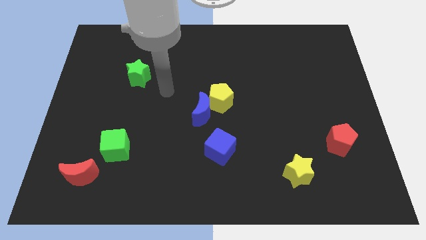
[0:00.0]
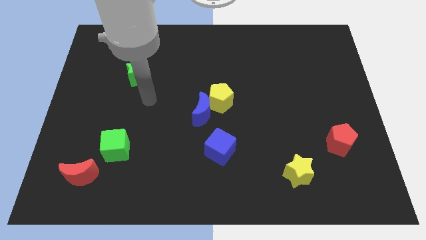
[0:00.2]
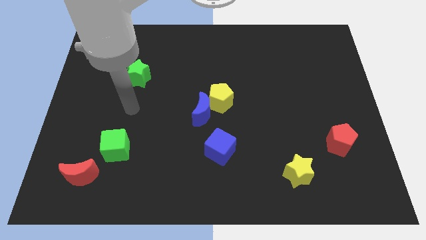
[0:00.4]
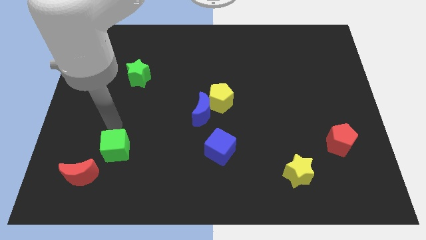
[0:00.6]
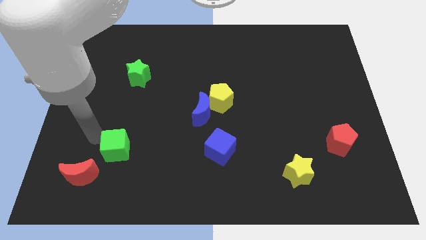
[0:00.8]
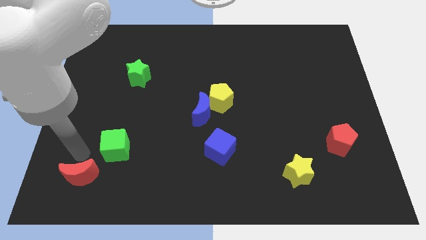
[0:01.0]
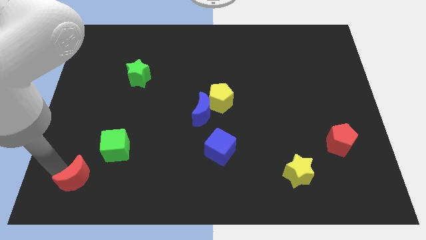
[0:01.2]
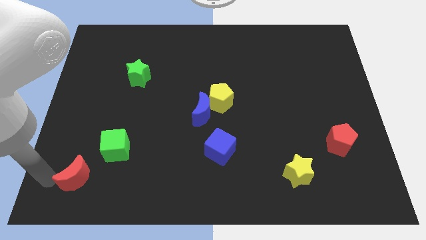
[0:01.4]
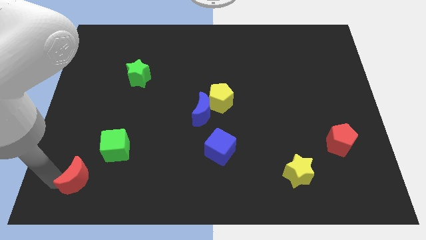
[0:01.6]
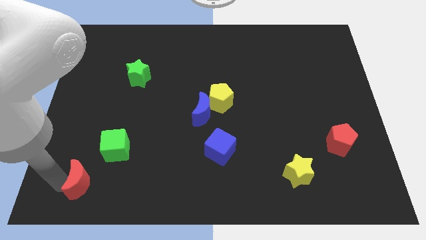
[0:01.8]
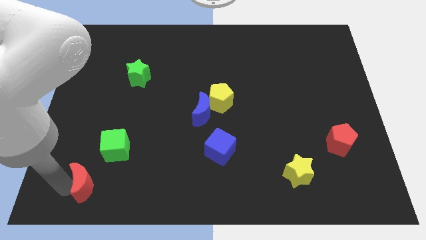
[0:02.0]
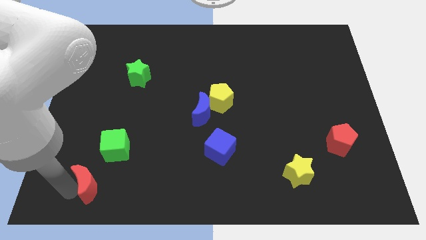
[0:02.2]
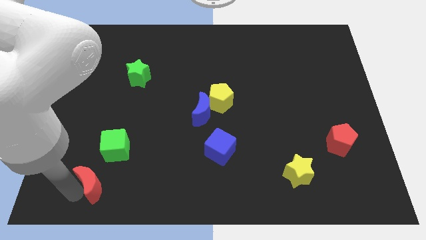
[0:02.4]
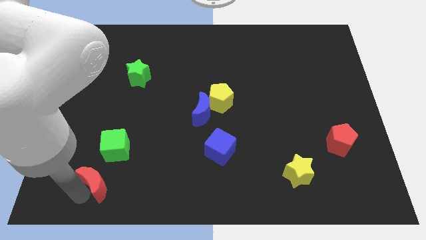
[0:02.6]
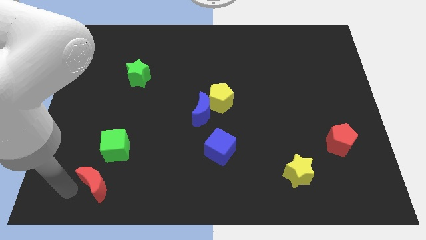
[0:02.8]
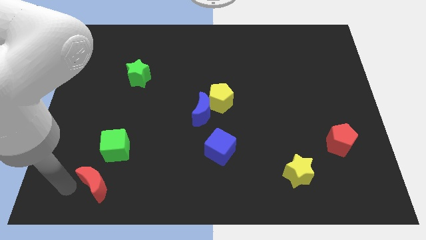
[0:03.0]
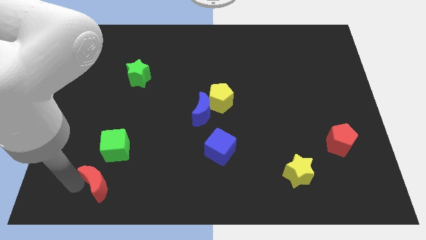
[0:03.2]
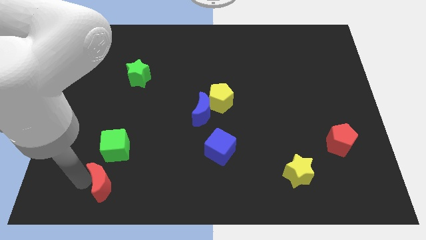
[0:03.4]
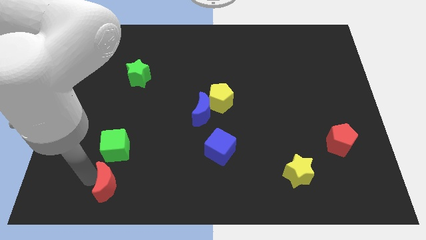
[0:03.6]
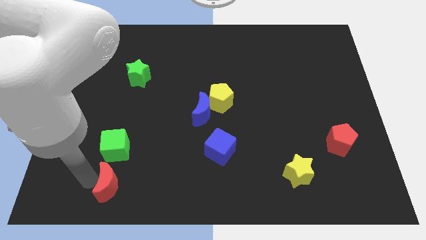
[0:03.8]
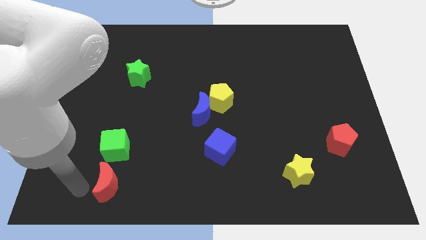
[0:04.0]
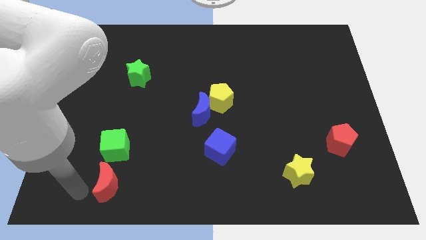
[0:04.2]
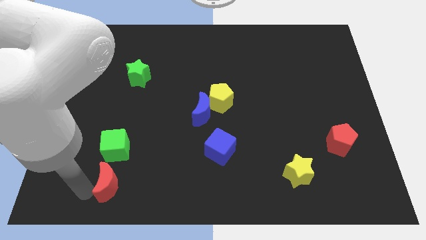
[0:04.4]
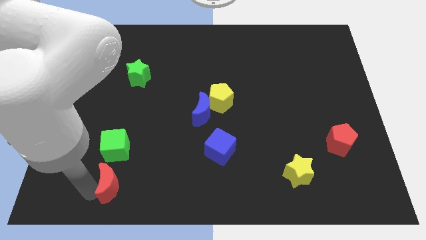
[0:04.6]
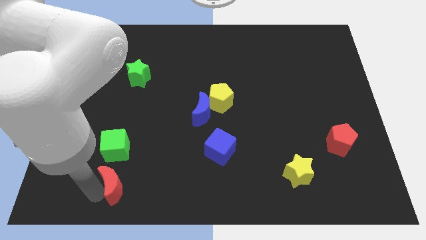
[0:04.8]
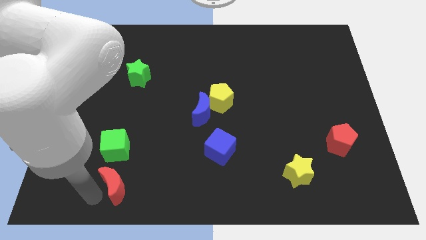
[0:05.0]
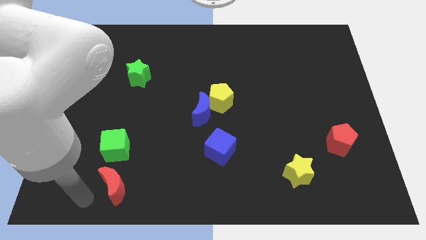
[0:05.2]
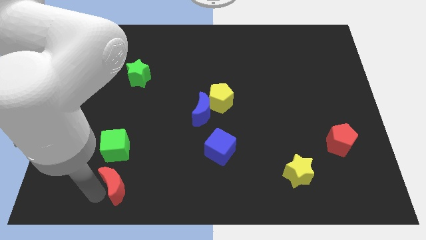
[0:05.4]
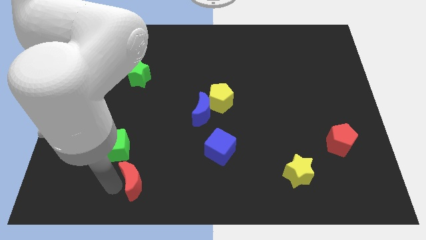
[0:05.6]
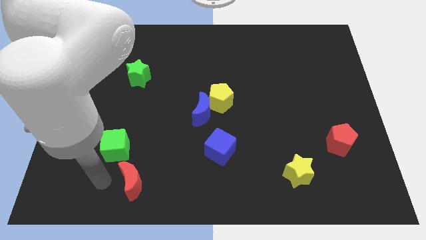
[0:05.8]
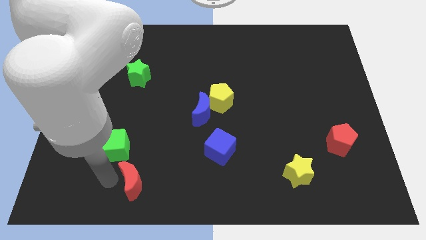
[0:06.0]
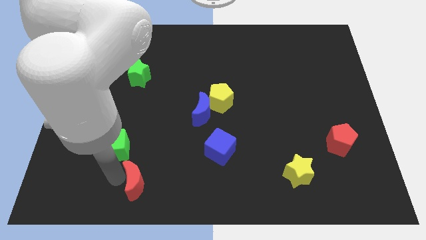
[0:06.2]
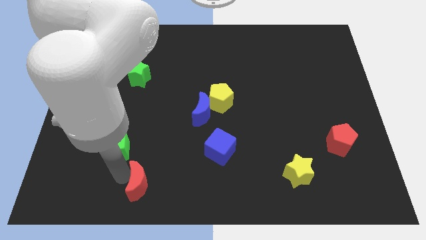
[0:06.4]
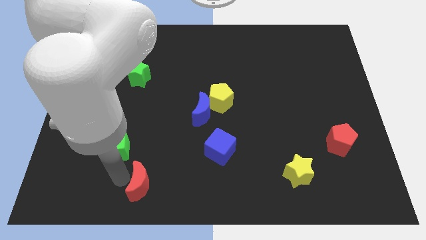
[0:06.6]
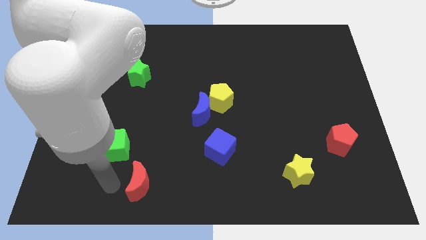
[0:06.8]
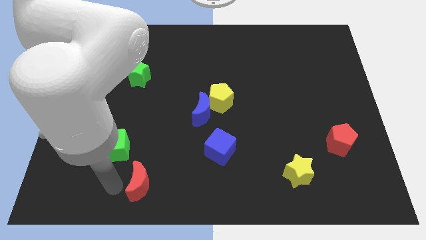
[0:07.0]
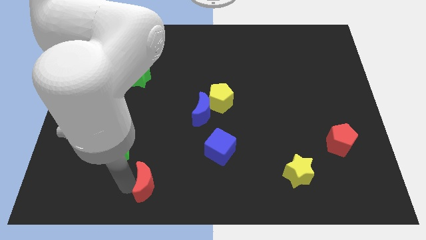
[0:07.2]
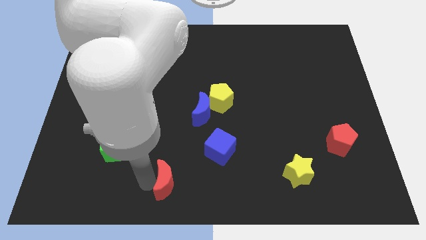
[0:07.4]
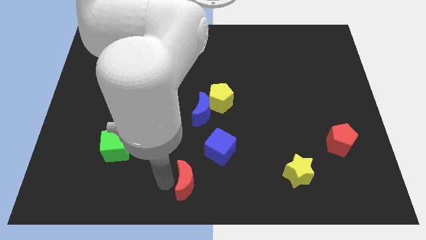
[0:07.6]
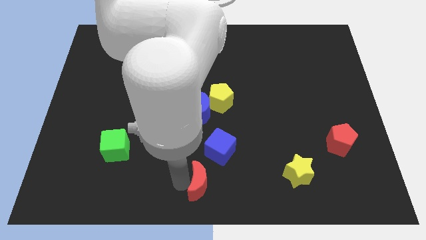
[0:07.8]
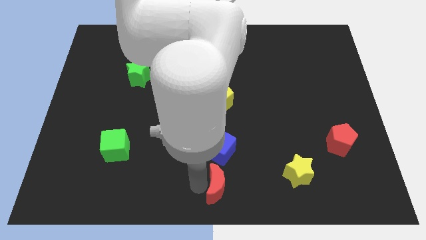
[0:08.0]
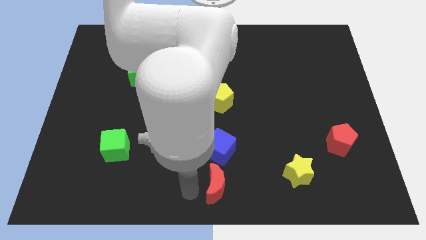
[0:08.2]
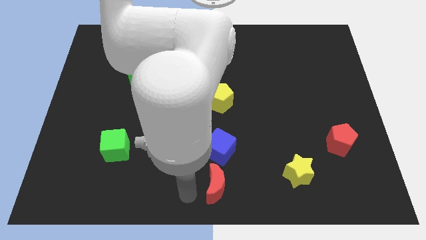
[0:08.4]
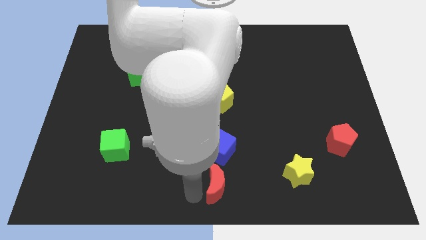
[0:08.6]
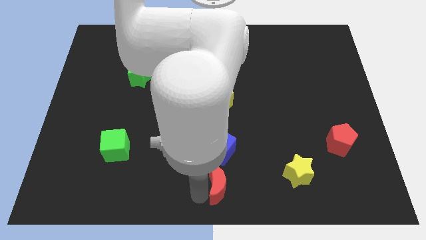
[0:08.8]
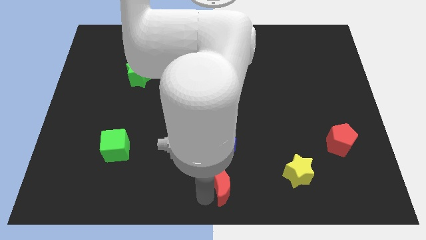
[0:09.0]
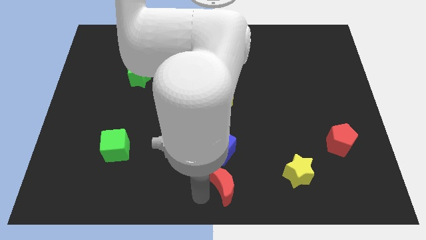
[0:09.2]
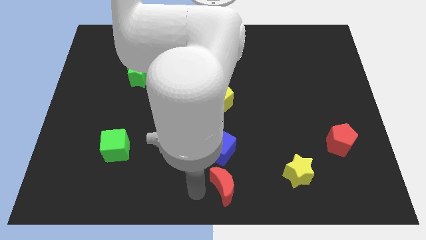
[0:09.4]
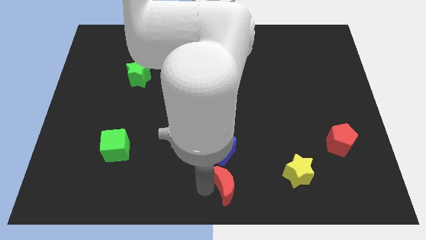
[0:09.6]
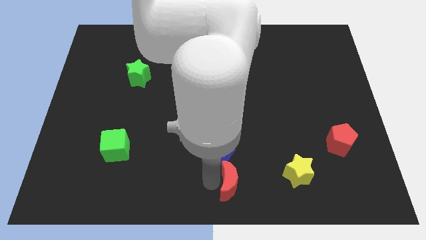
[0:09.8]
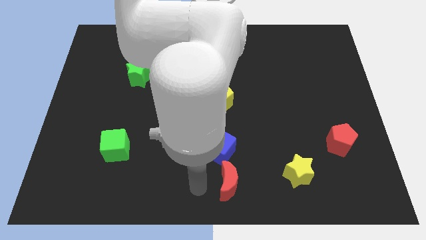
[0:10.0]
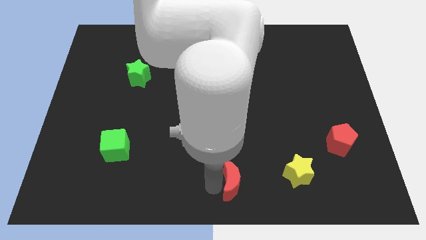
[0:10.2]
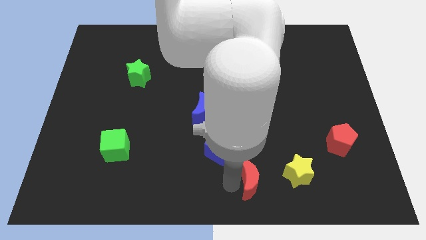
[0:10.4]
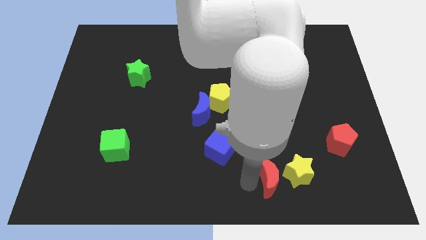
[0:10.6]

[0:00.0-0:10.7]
move the red moon towards the yellow star

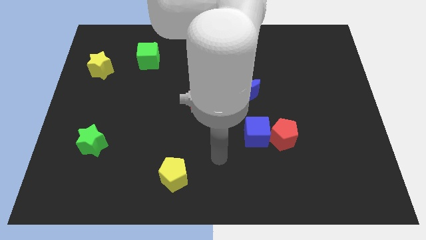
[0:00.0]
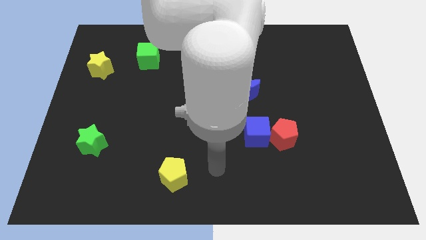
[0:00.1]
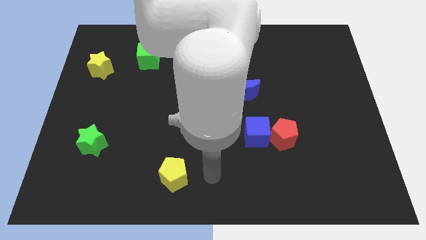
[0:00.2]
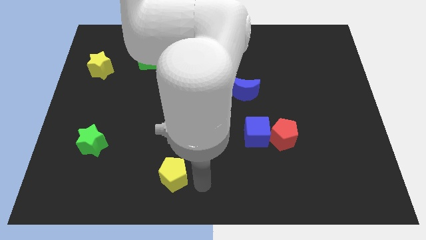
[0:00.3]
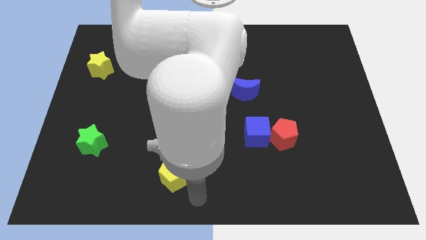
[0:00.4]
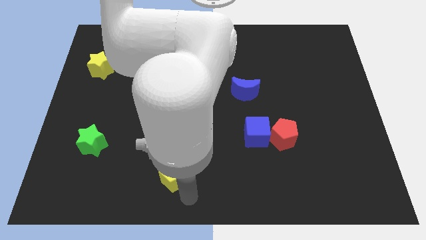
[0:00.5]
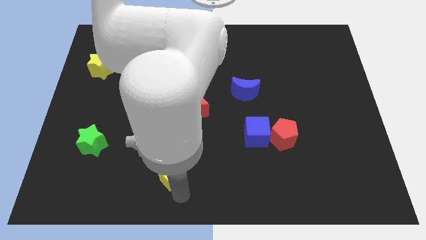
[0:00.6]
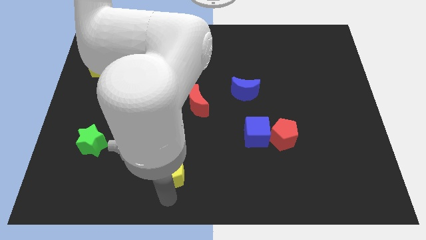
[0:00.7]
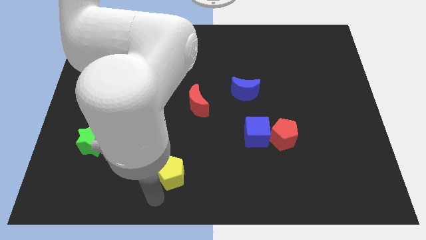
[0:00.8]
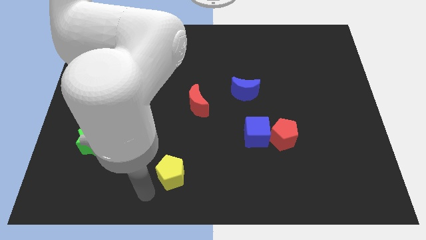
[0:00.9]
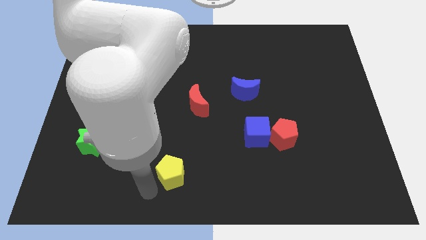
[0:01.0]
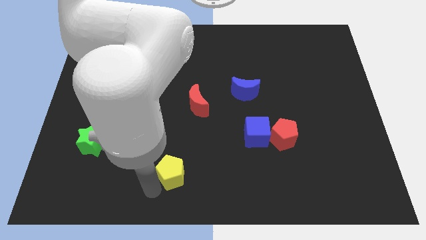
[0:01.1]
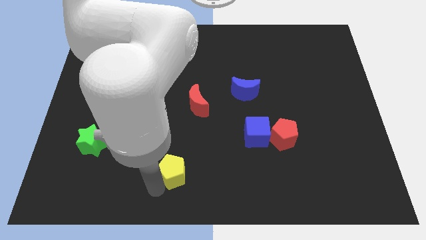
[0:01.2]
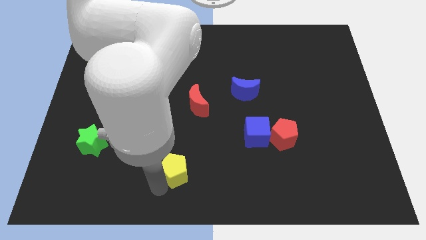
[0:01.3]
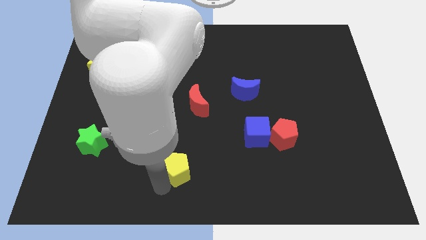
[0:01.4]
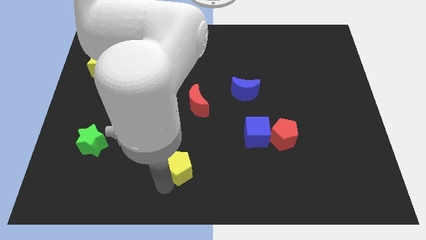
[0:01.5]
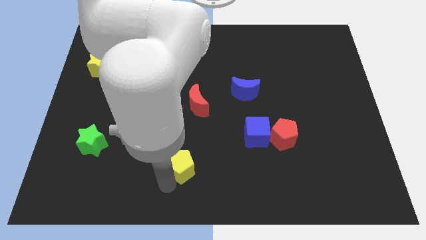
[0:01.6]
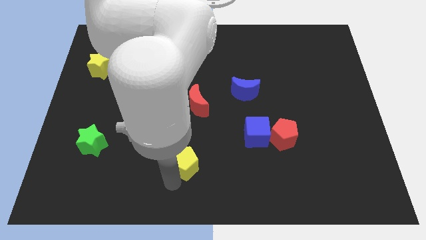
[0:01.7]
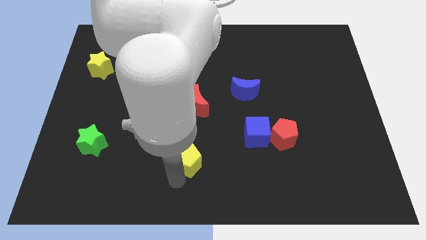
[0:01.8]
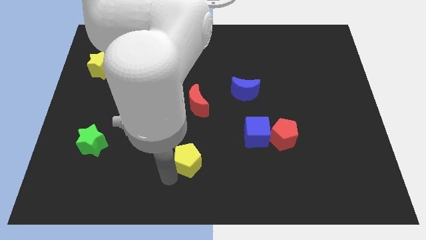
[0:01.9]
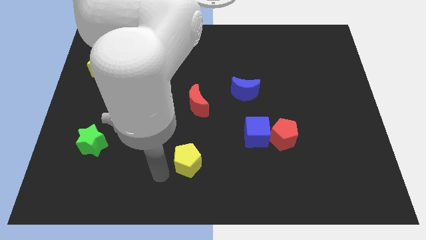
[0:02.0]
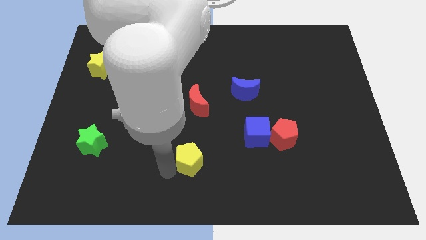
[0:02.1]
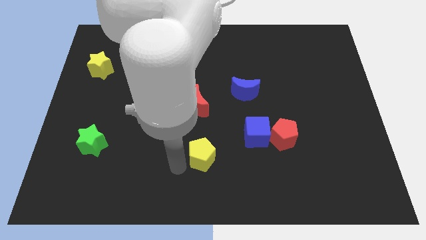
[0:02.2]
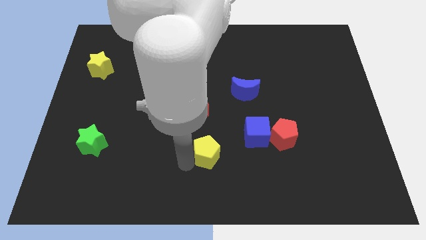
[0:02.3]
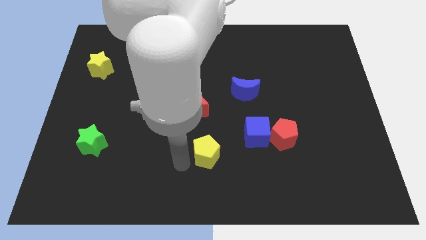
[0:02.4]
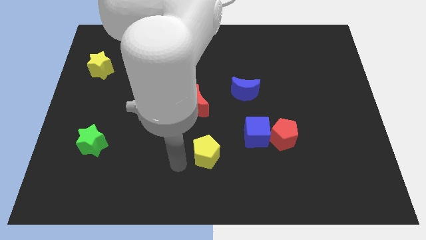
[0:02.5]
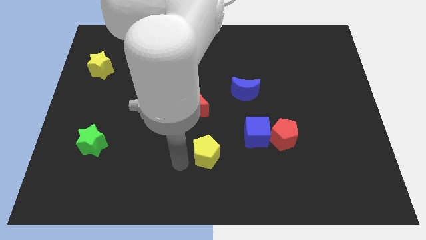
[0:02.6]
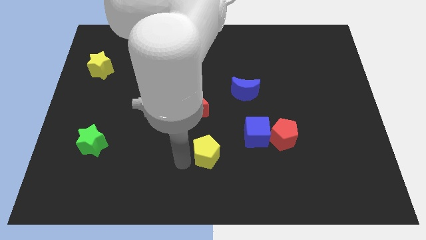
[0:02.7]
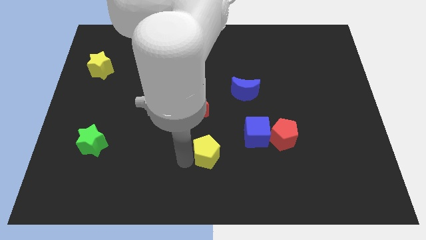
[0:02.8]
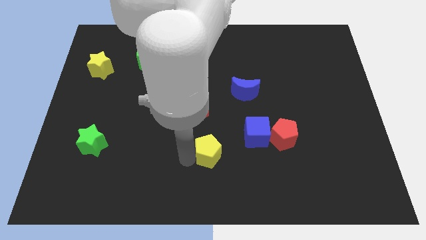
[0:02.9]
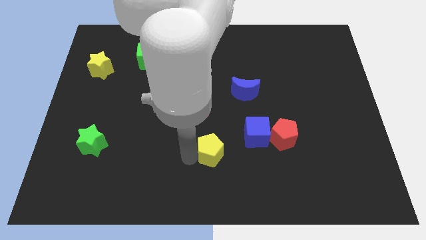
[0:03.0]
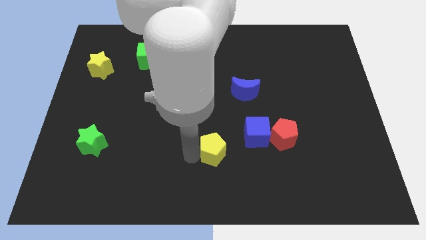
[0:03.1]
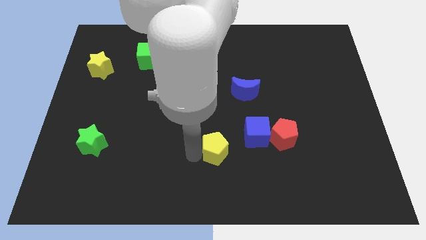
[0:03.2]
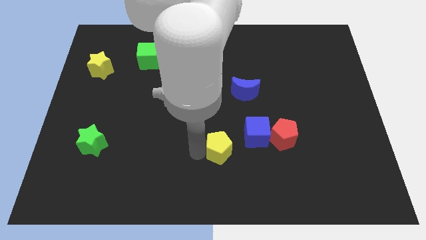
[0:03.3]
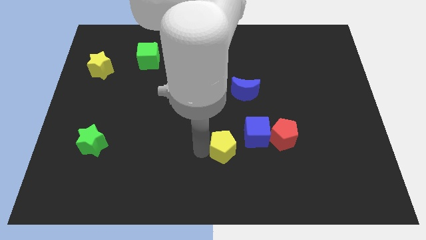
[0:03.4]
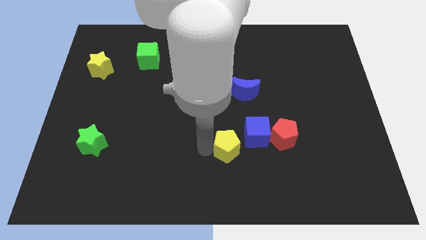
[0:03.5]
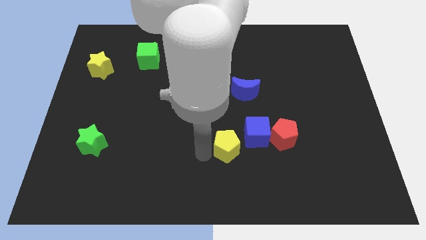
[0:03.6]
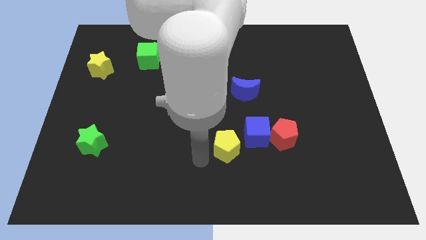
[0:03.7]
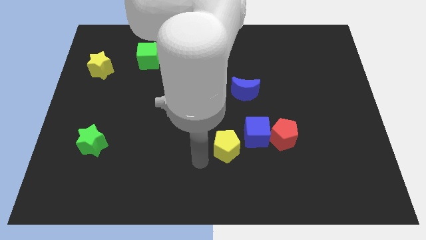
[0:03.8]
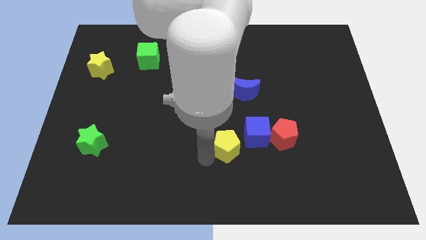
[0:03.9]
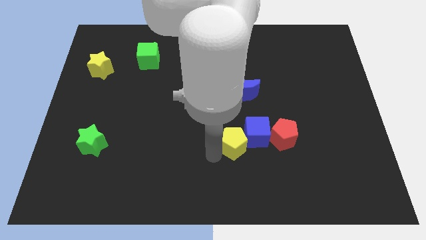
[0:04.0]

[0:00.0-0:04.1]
put the yellow pentagon to the blue cube
